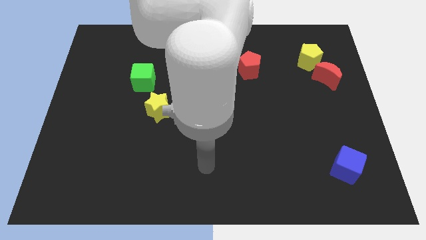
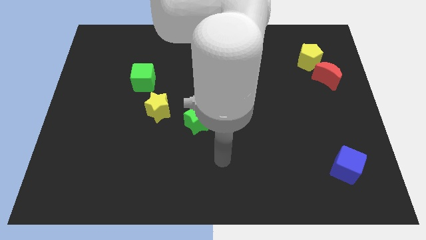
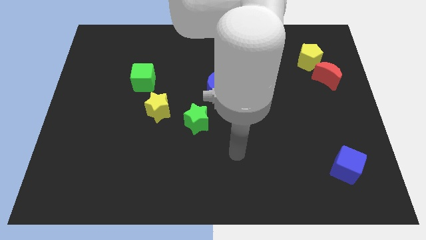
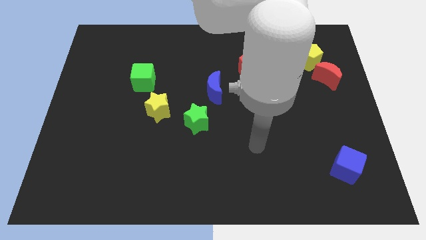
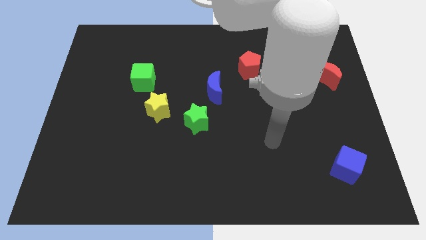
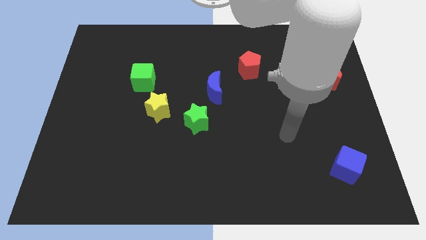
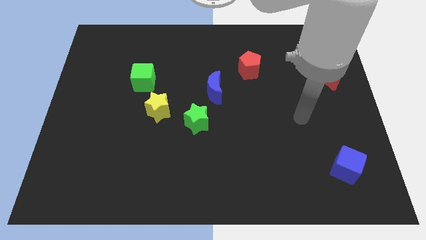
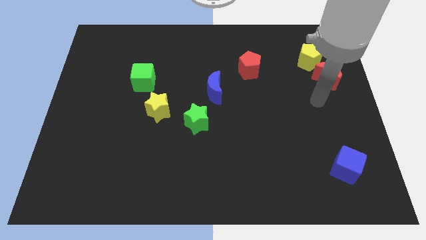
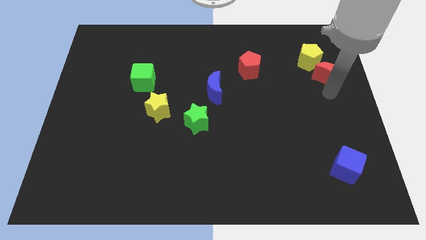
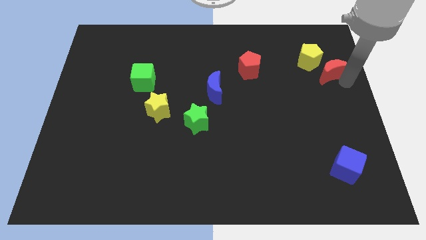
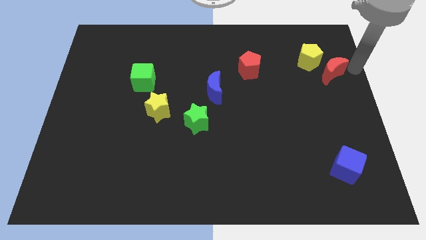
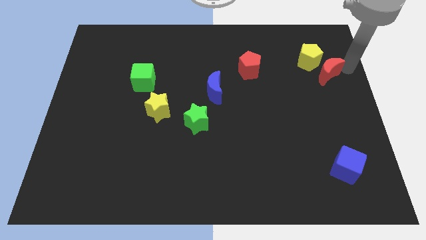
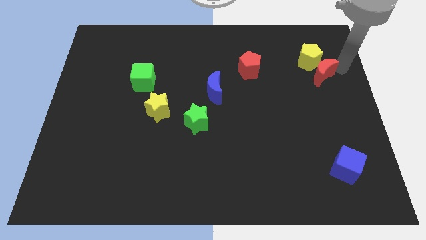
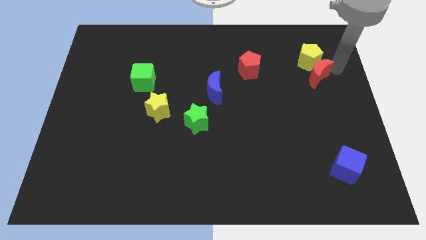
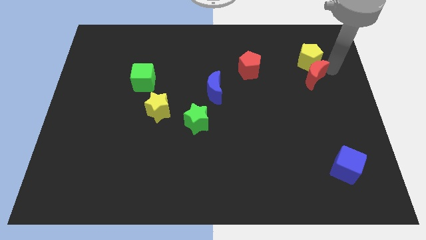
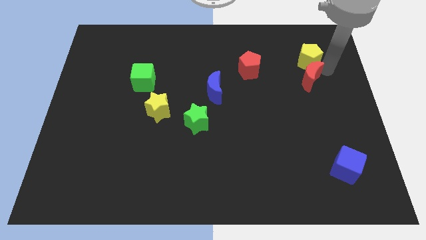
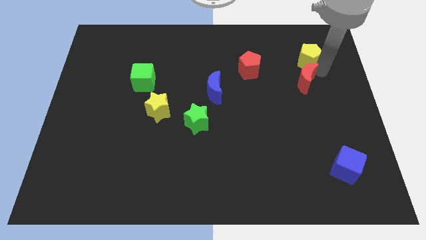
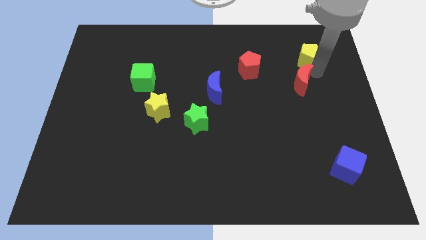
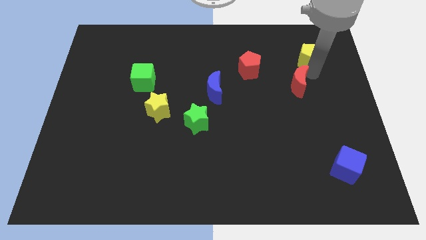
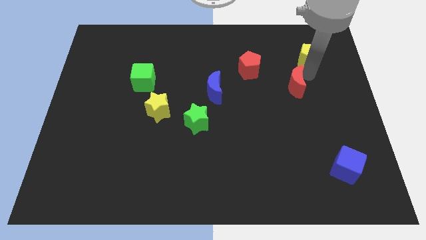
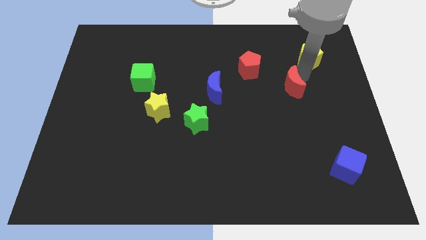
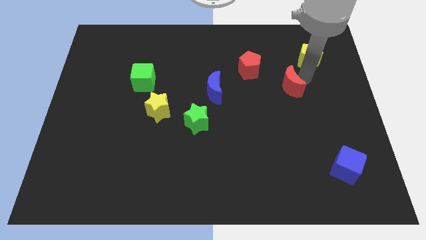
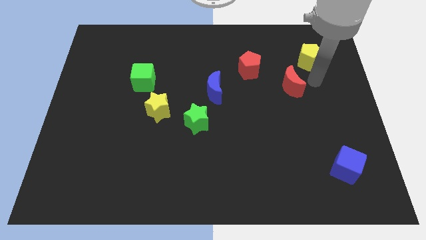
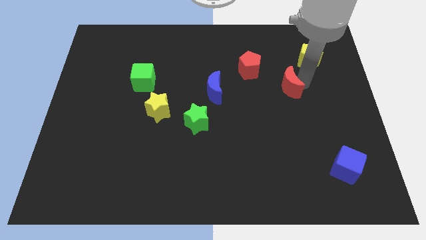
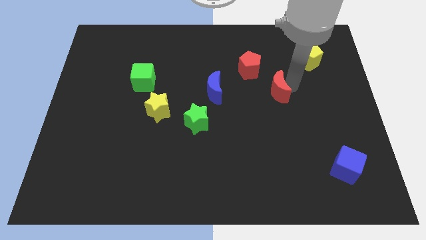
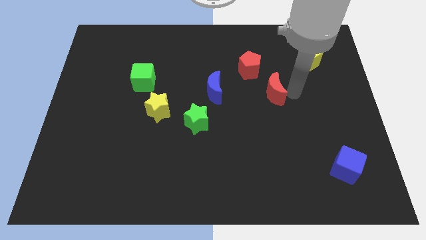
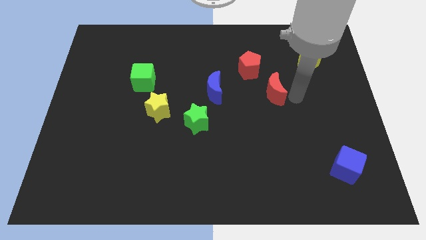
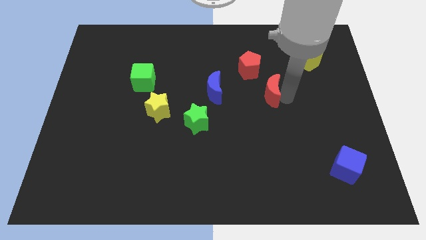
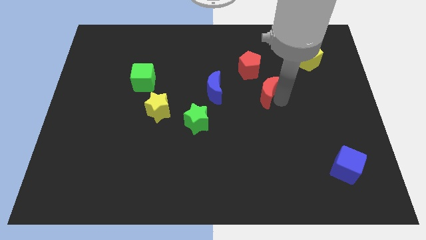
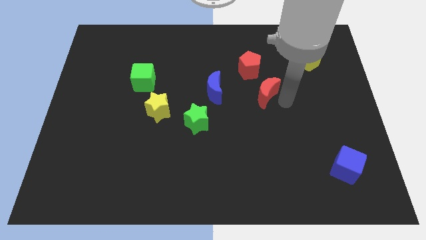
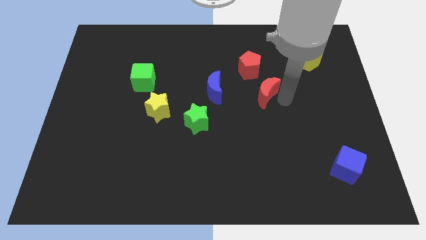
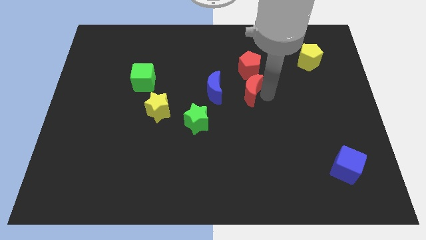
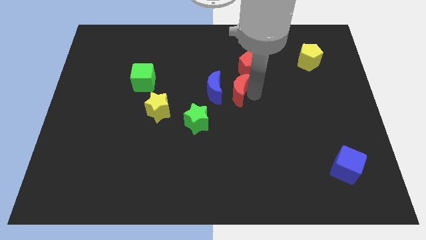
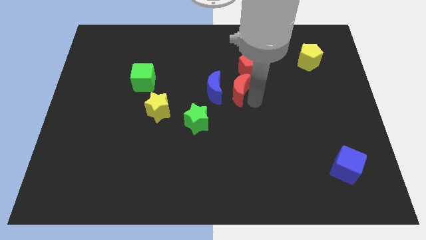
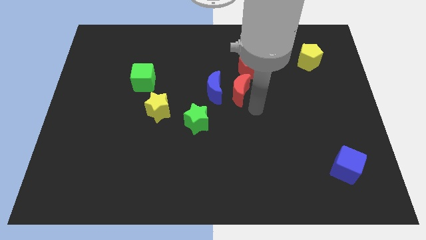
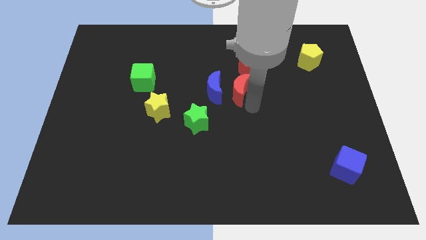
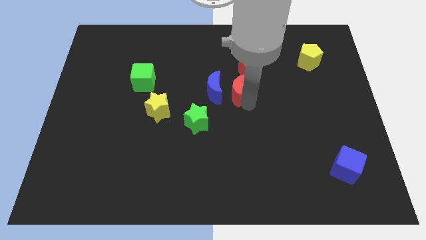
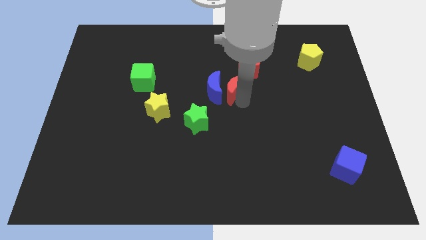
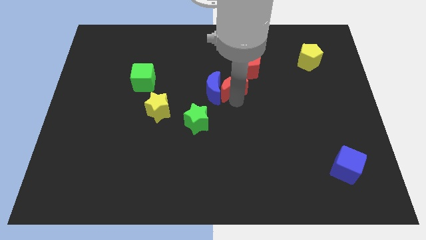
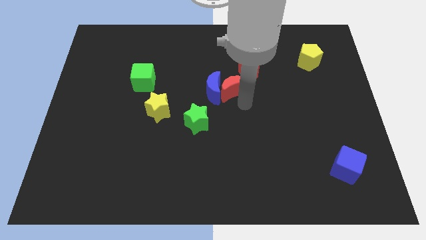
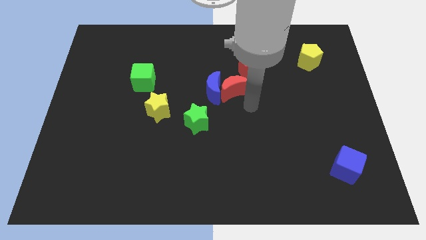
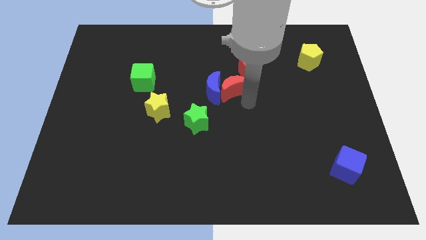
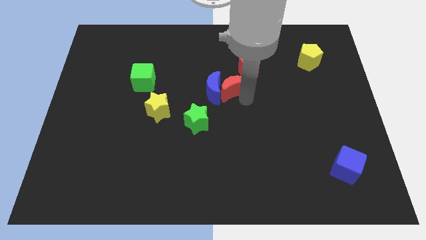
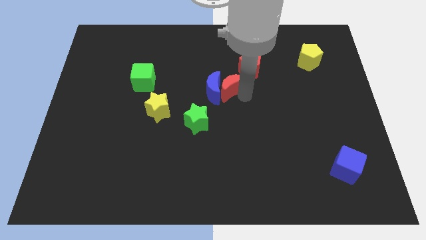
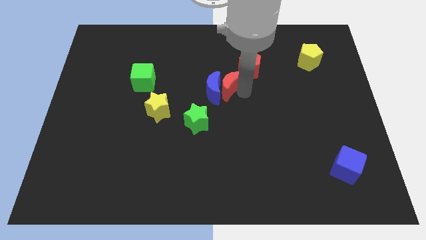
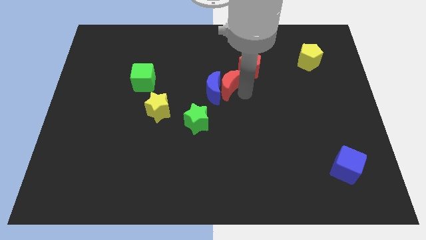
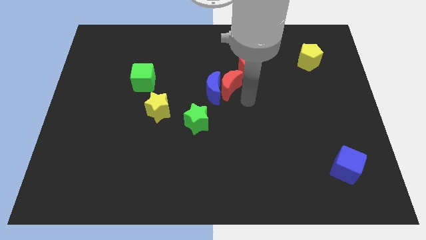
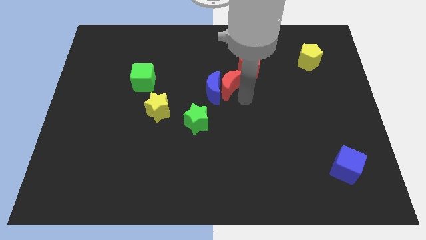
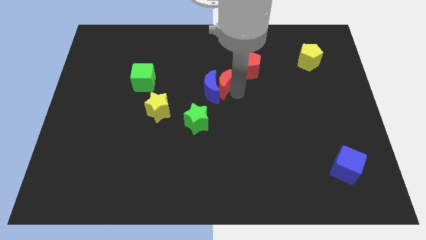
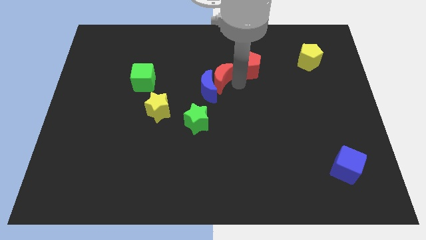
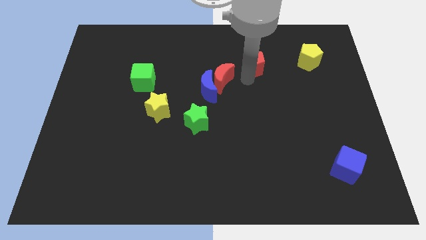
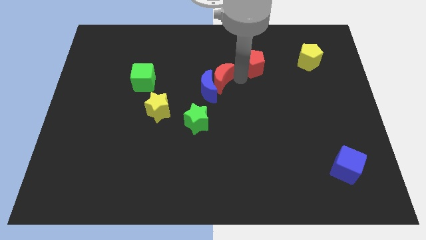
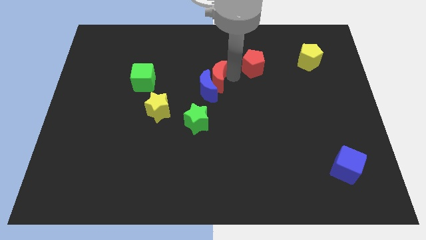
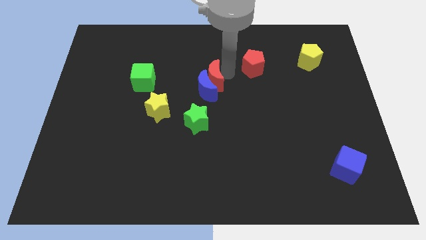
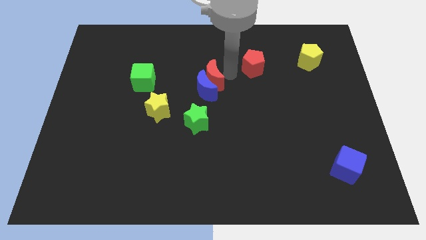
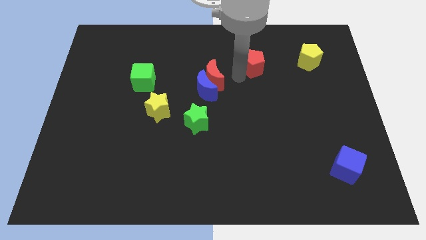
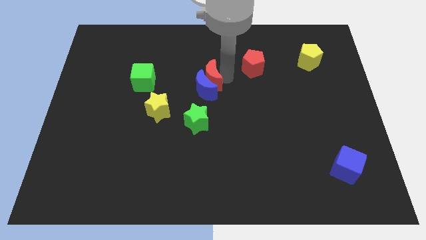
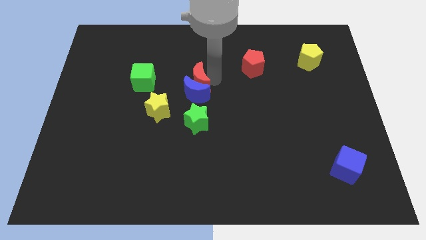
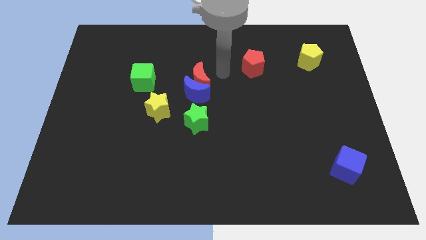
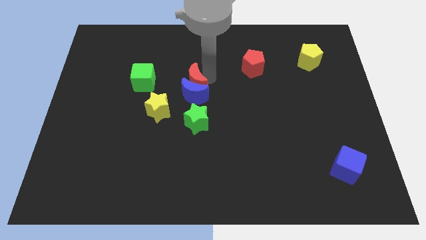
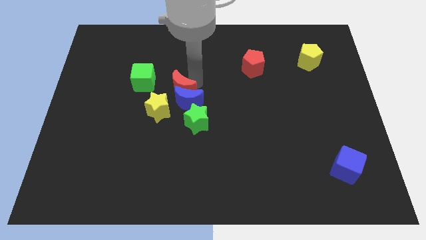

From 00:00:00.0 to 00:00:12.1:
push the red moon diagonally down and to the right of the green cube

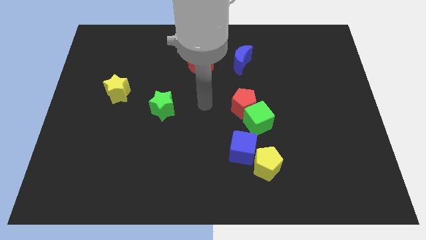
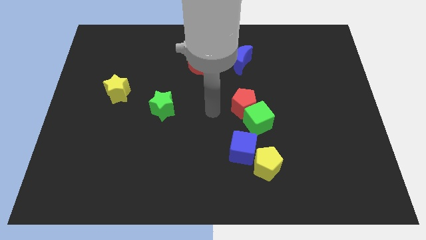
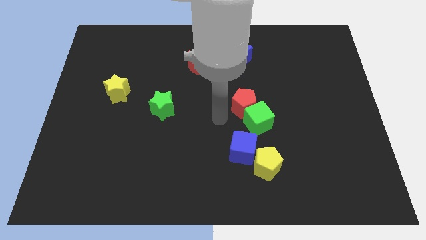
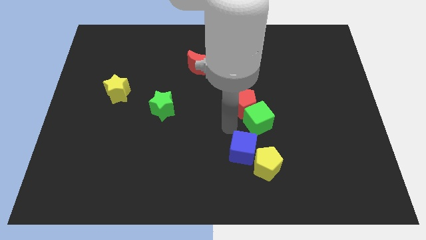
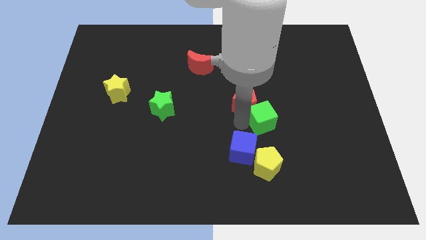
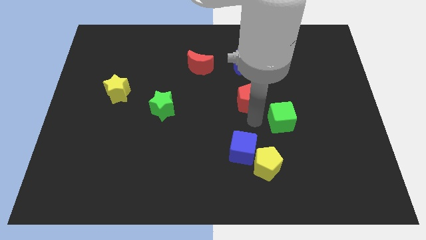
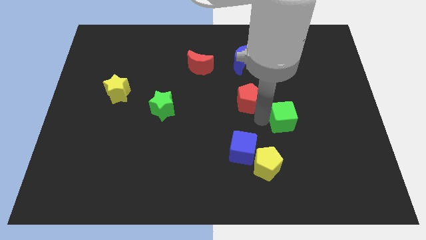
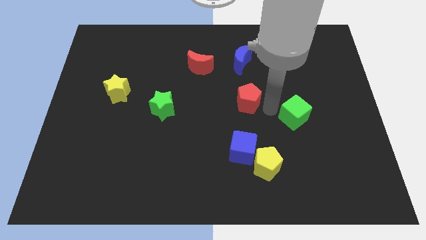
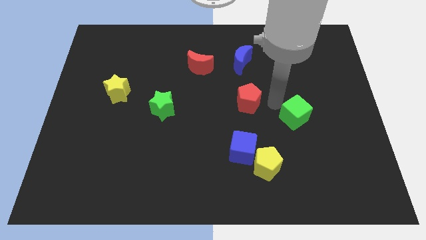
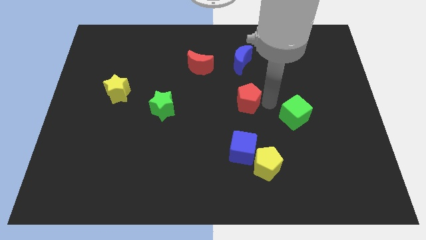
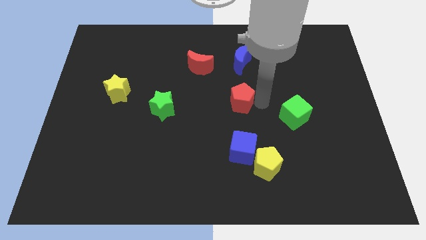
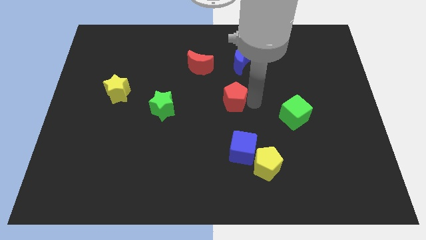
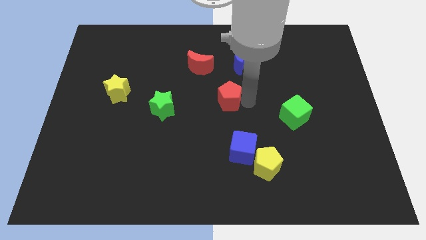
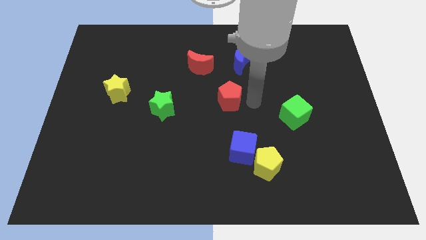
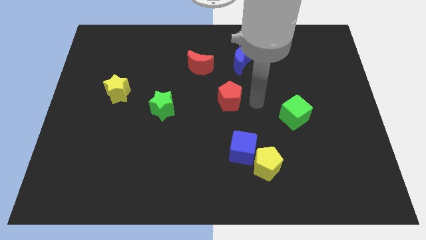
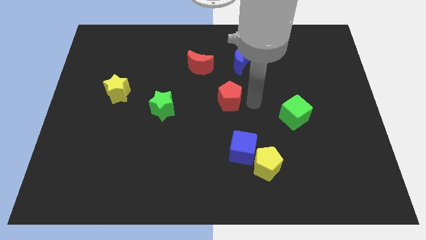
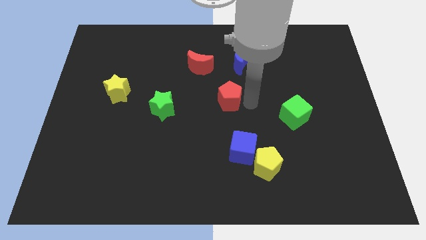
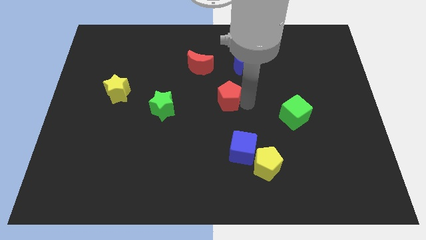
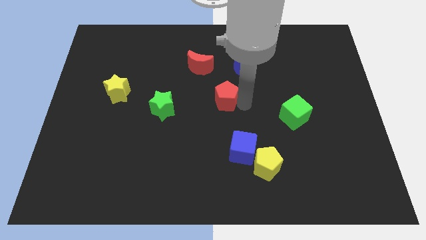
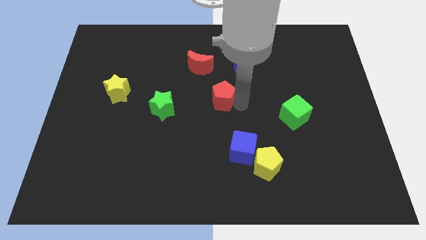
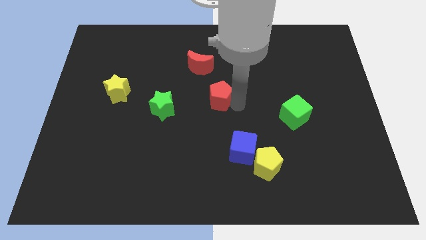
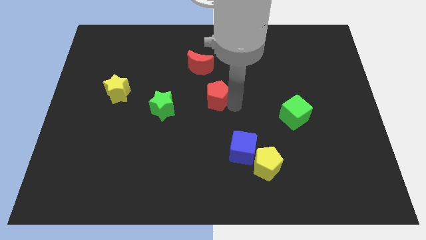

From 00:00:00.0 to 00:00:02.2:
slide the red pentagon to the bottom of the red moon

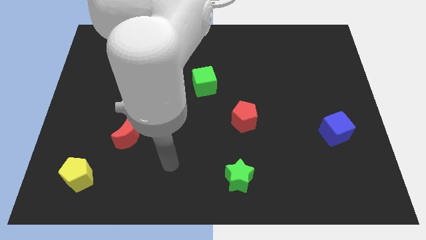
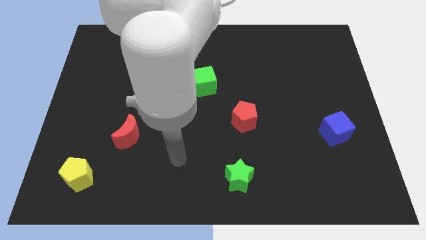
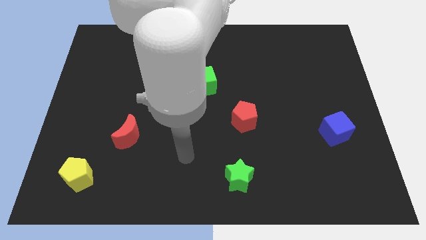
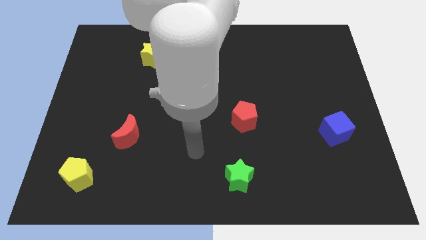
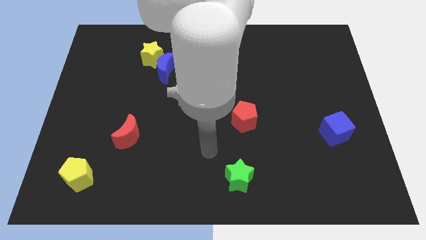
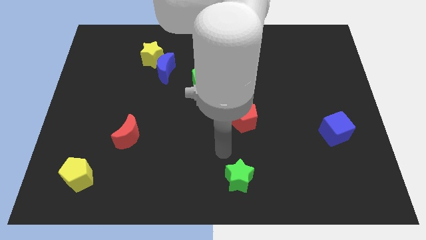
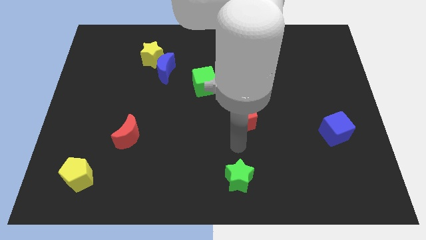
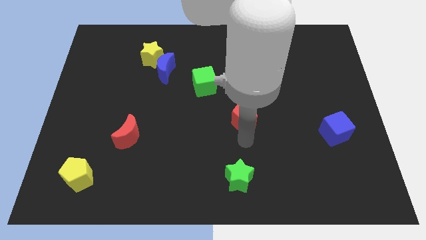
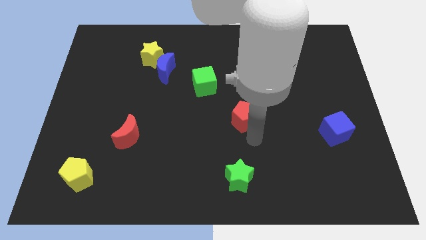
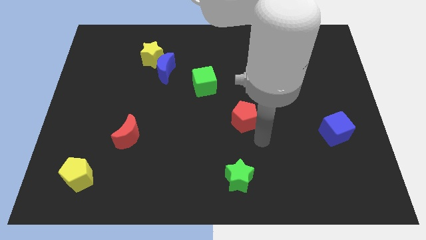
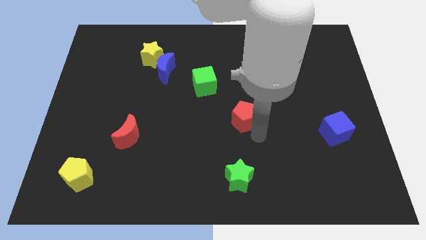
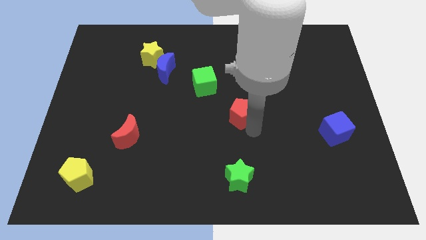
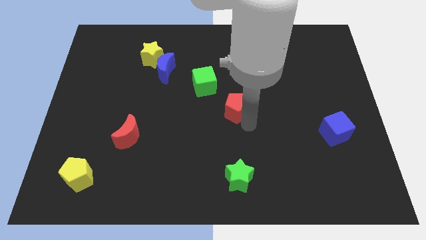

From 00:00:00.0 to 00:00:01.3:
push the red pentagon to the bottom right of the green cube
